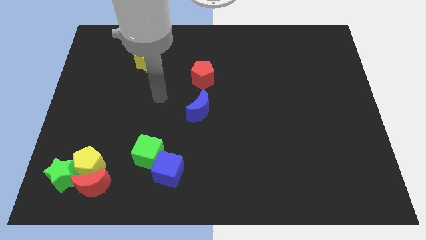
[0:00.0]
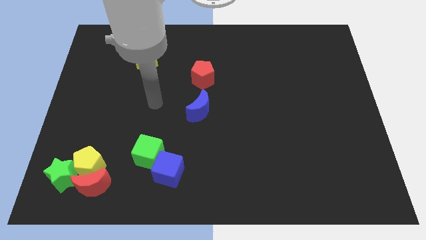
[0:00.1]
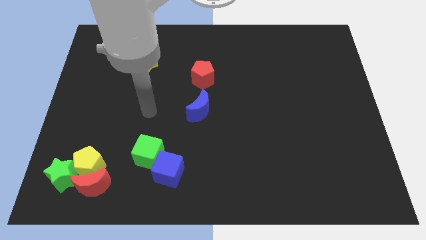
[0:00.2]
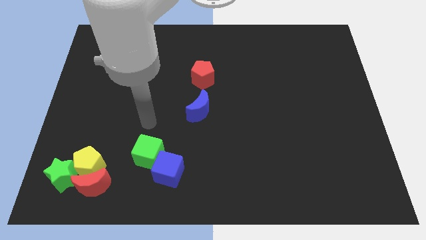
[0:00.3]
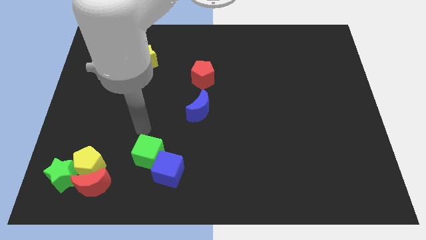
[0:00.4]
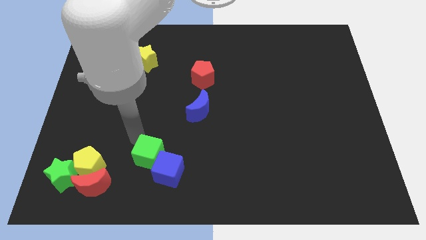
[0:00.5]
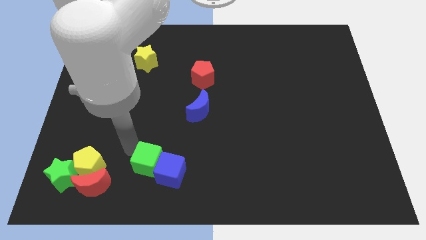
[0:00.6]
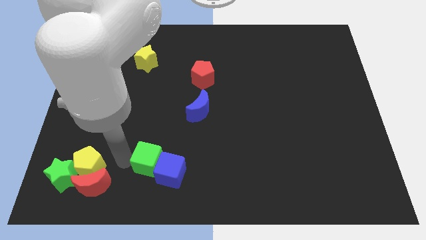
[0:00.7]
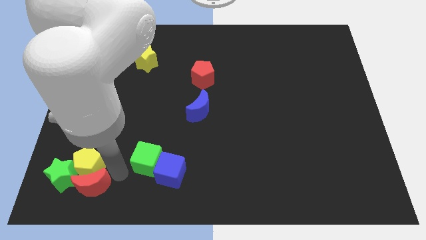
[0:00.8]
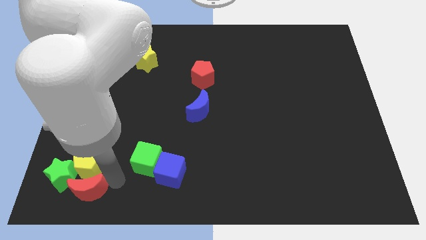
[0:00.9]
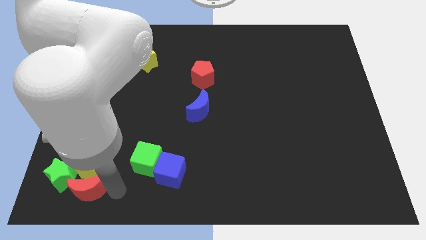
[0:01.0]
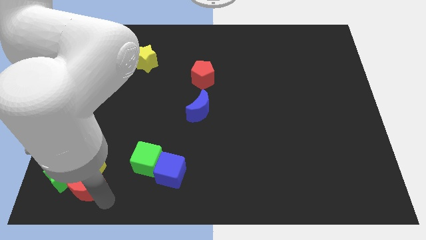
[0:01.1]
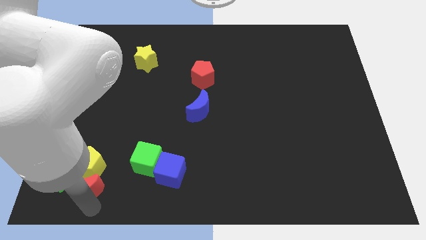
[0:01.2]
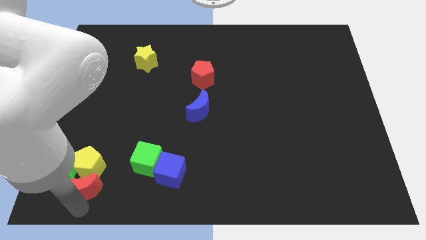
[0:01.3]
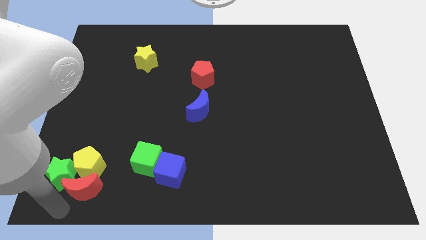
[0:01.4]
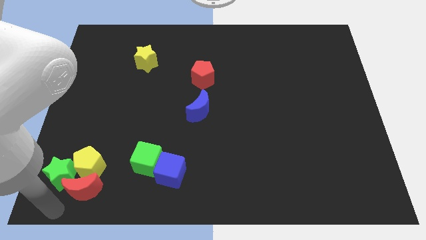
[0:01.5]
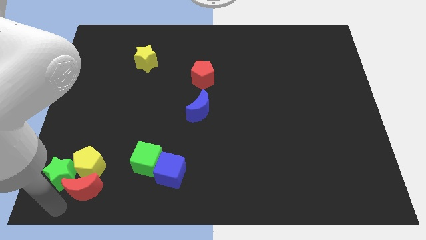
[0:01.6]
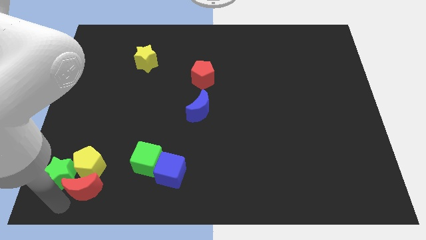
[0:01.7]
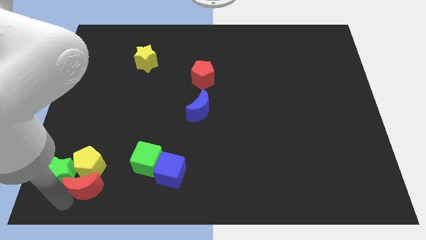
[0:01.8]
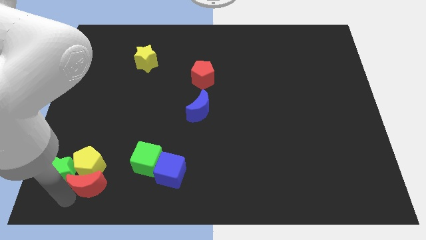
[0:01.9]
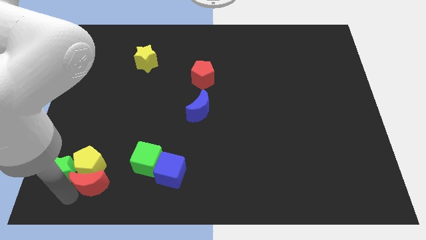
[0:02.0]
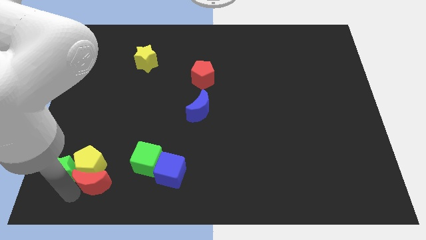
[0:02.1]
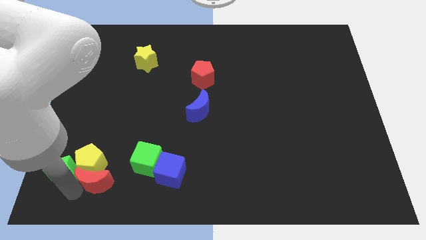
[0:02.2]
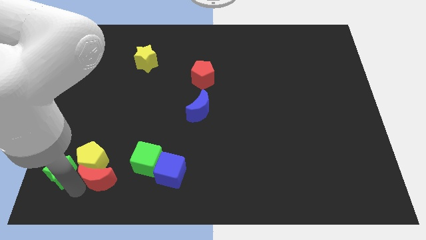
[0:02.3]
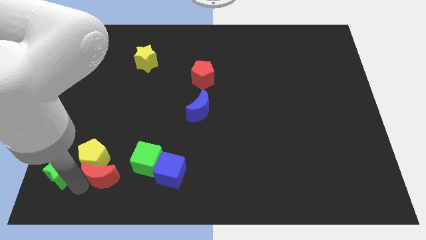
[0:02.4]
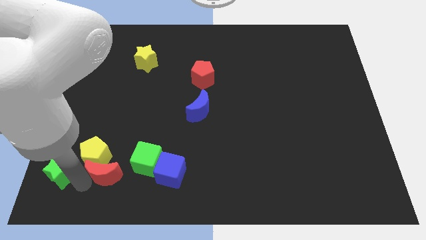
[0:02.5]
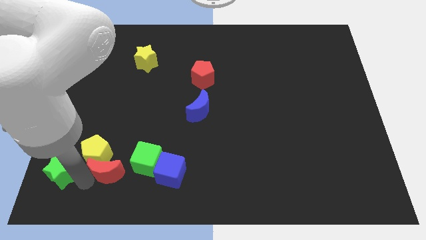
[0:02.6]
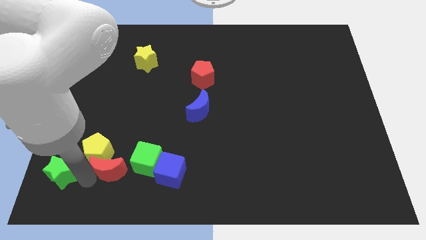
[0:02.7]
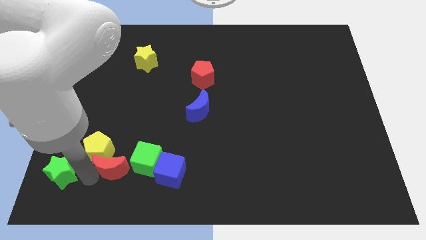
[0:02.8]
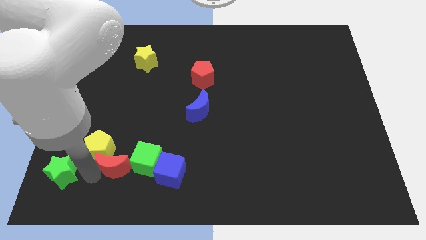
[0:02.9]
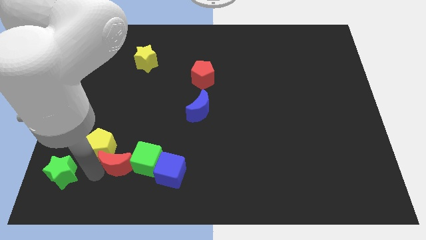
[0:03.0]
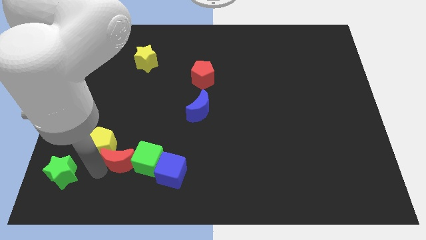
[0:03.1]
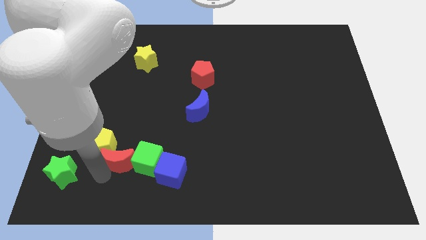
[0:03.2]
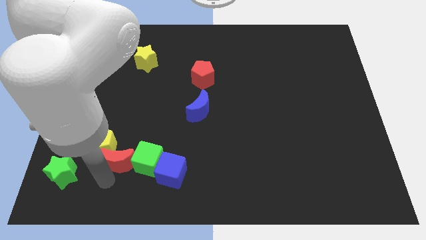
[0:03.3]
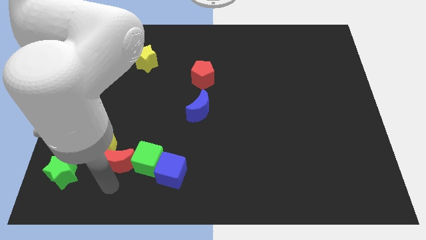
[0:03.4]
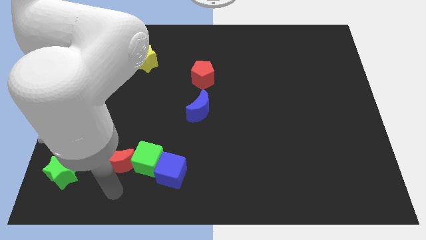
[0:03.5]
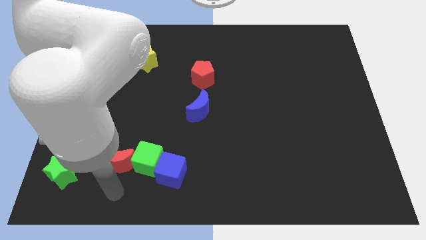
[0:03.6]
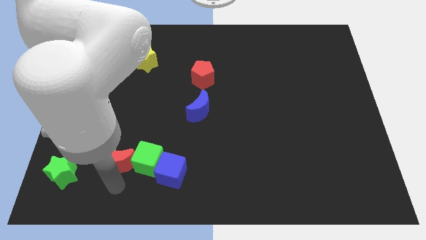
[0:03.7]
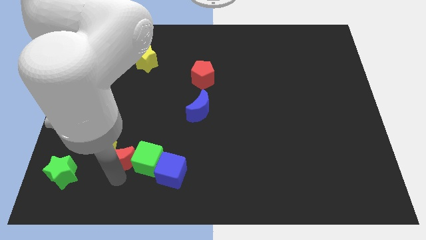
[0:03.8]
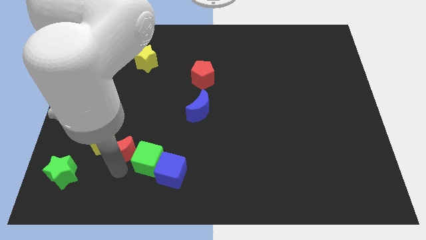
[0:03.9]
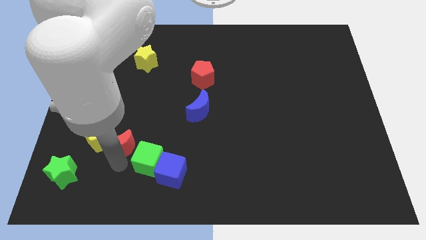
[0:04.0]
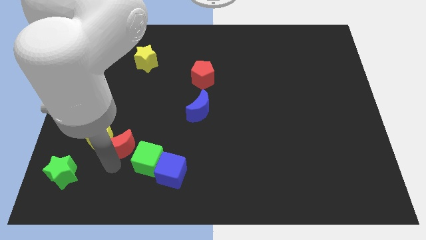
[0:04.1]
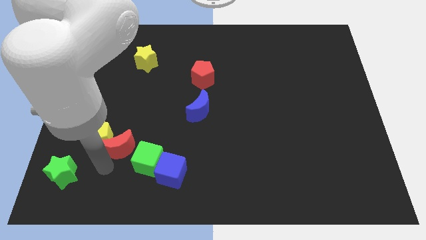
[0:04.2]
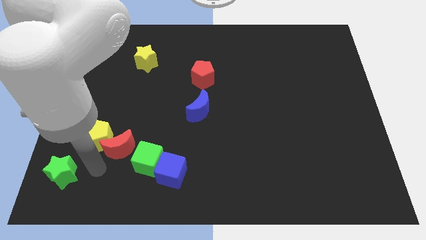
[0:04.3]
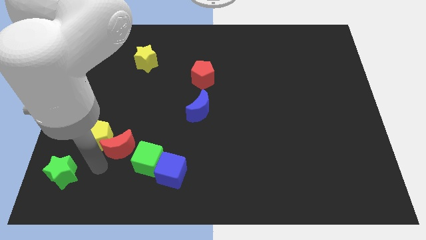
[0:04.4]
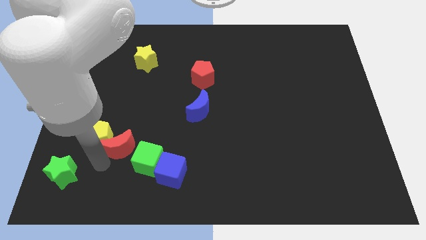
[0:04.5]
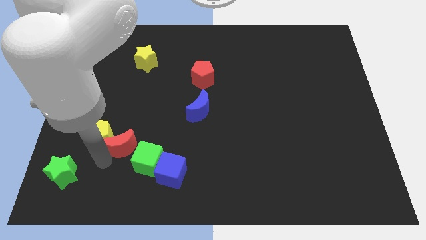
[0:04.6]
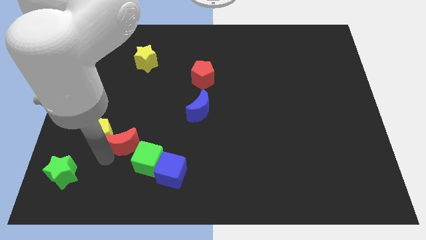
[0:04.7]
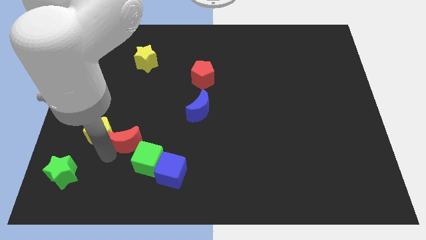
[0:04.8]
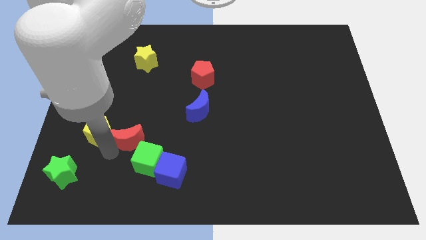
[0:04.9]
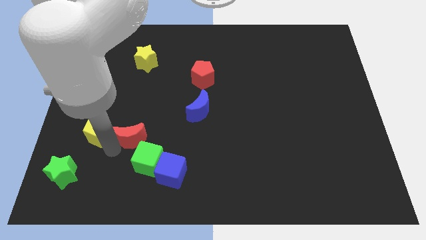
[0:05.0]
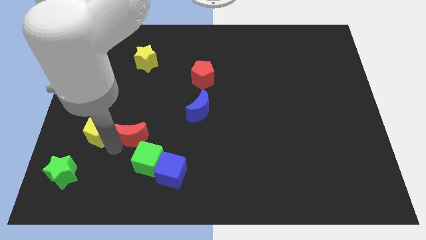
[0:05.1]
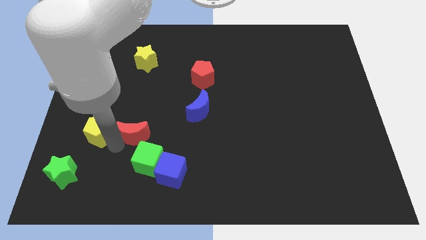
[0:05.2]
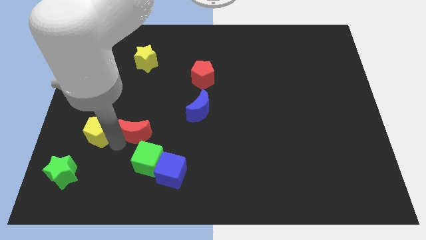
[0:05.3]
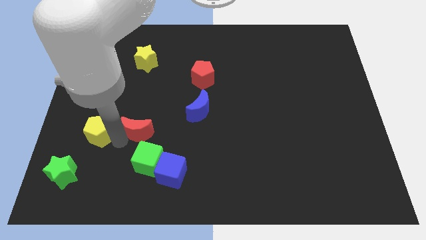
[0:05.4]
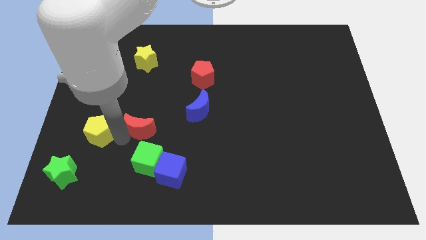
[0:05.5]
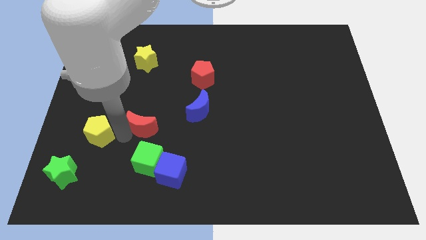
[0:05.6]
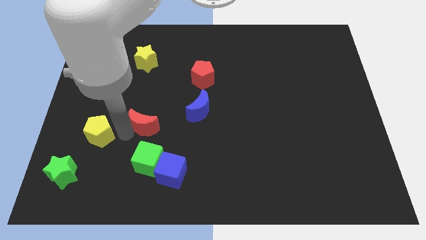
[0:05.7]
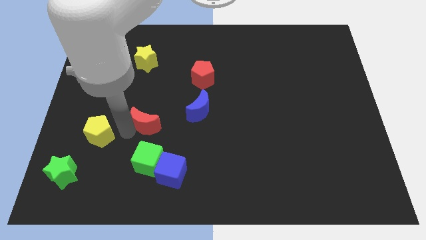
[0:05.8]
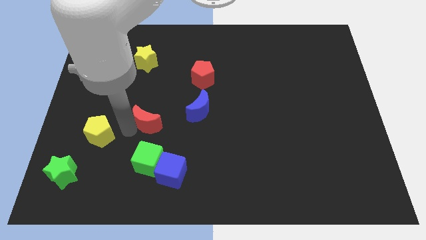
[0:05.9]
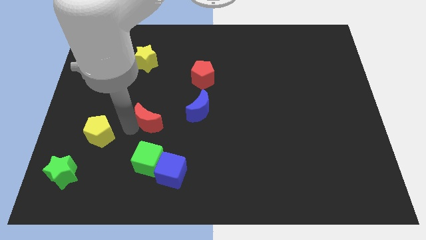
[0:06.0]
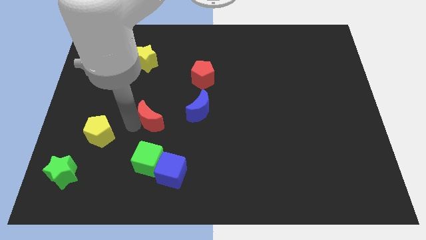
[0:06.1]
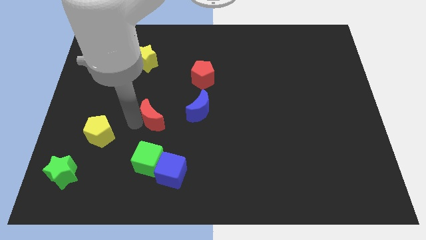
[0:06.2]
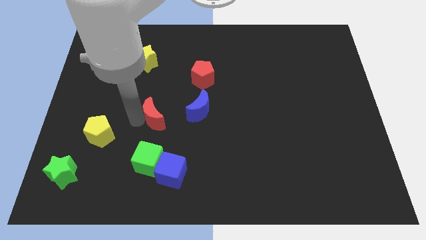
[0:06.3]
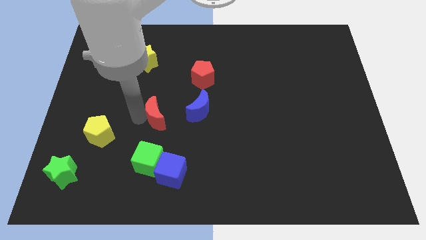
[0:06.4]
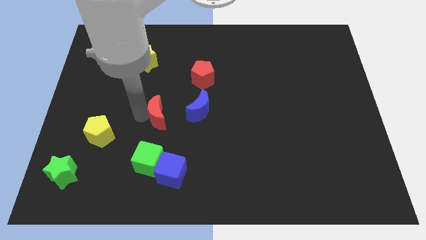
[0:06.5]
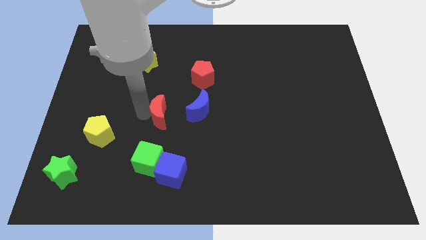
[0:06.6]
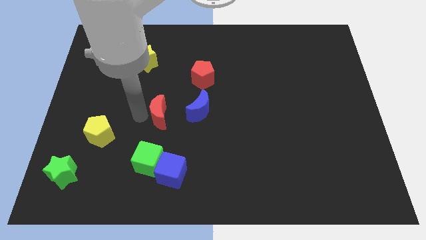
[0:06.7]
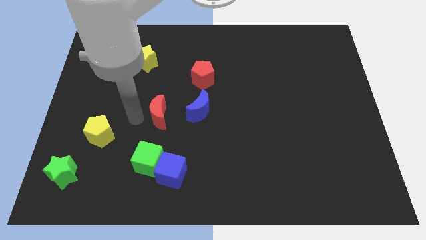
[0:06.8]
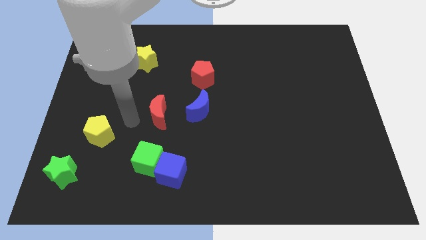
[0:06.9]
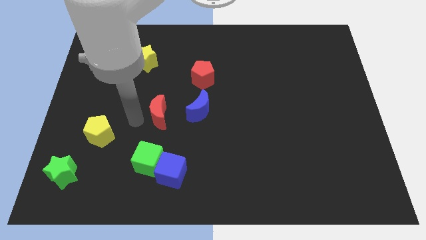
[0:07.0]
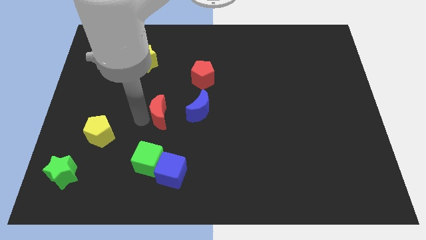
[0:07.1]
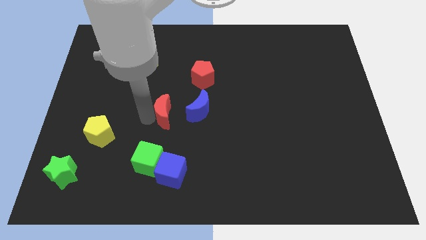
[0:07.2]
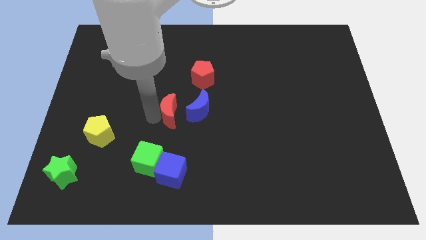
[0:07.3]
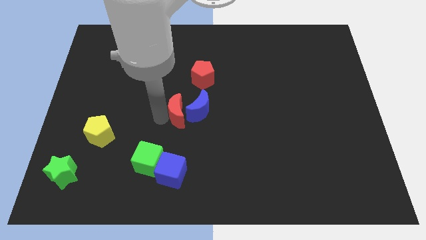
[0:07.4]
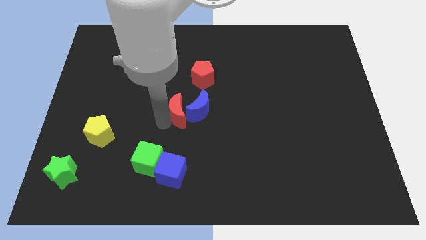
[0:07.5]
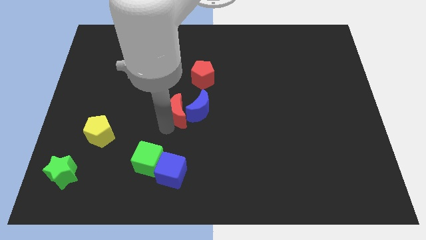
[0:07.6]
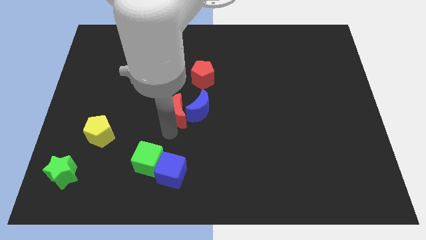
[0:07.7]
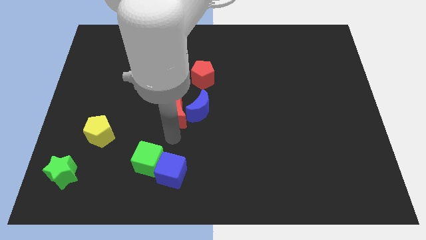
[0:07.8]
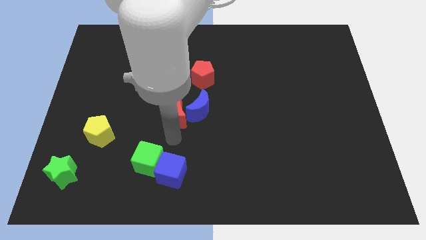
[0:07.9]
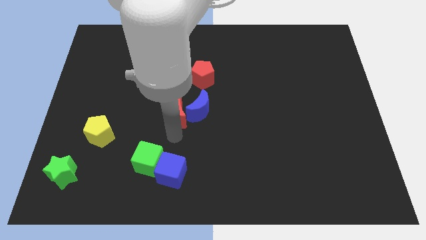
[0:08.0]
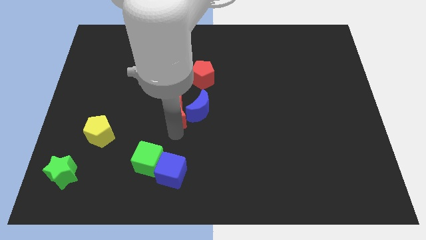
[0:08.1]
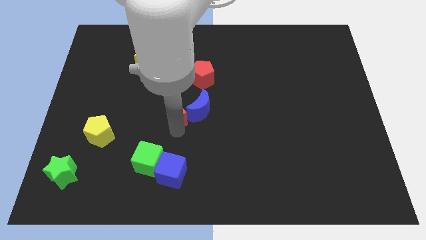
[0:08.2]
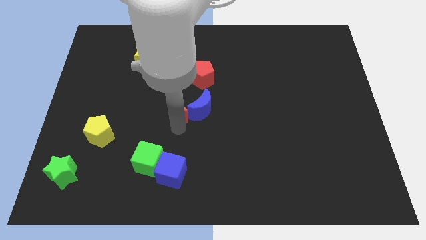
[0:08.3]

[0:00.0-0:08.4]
move the red moon diagonally down and to the left of the red pentagon
